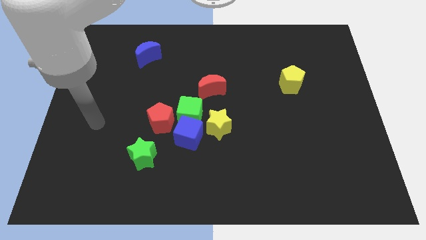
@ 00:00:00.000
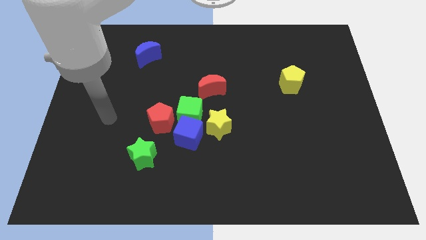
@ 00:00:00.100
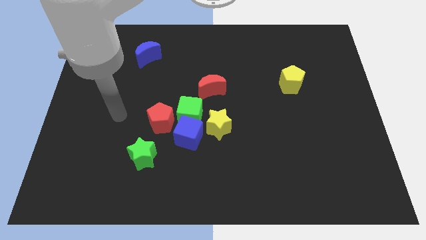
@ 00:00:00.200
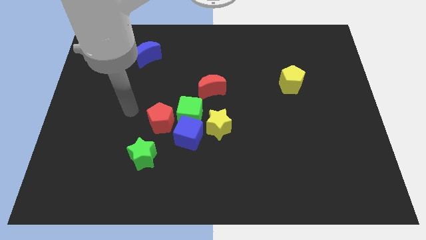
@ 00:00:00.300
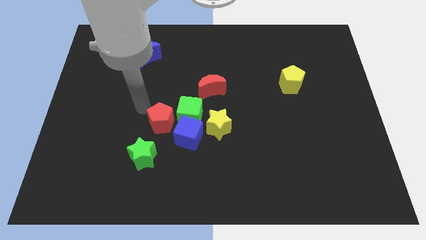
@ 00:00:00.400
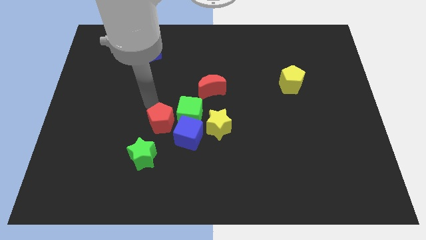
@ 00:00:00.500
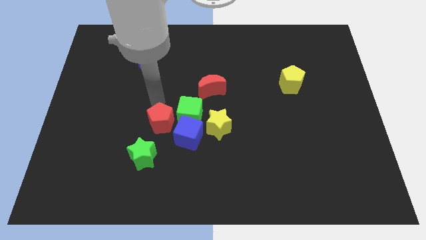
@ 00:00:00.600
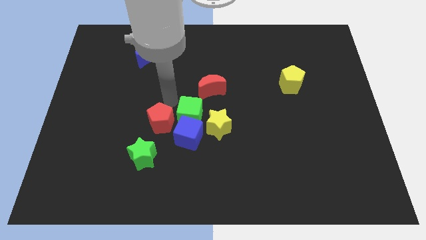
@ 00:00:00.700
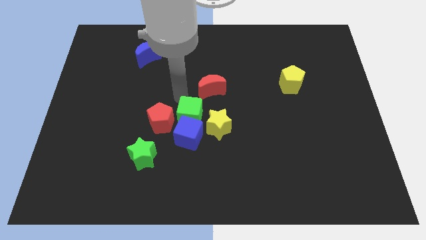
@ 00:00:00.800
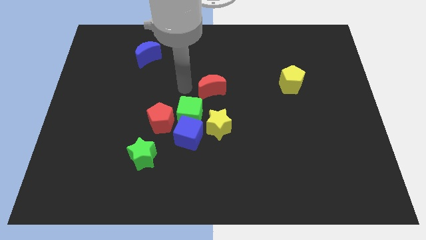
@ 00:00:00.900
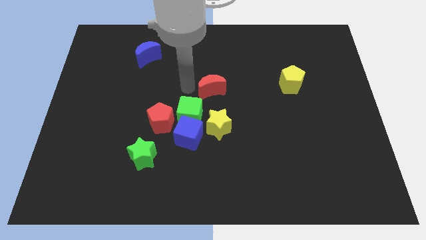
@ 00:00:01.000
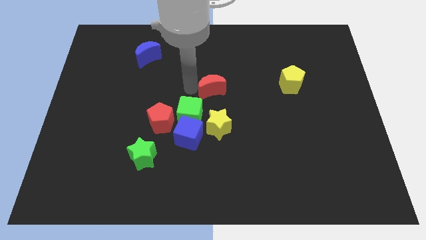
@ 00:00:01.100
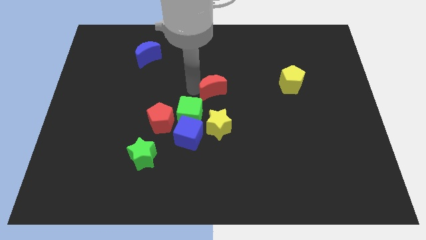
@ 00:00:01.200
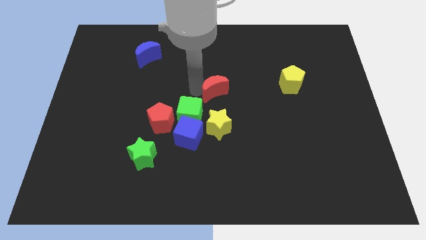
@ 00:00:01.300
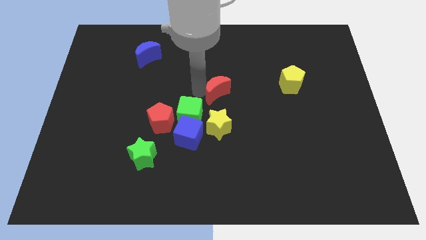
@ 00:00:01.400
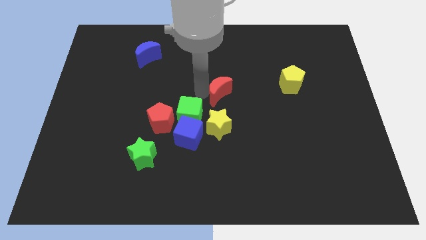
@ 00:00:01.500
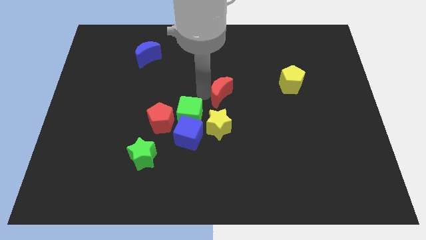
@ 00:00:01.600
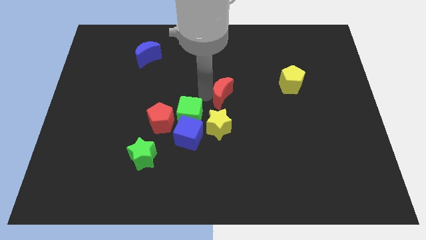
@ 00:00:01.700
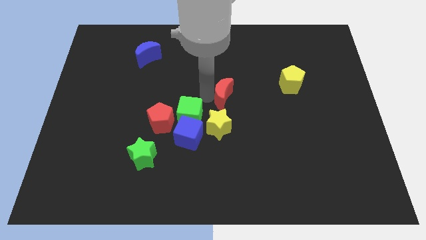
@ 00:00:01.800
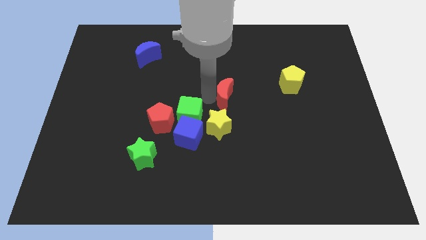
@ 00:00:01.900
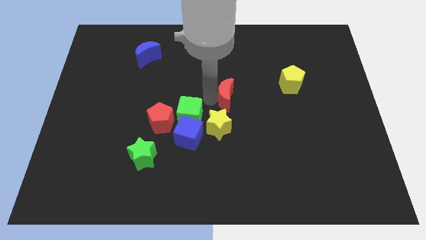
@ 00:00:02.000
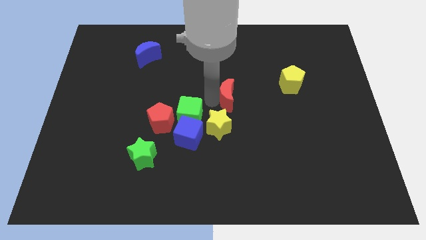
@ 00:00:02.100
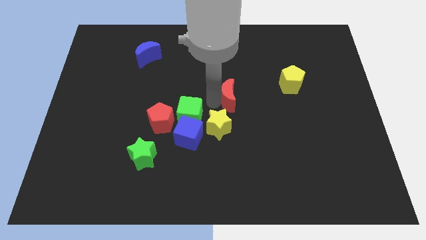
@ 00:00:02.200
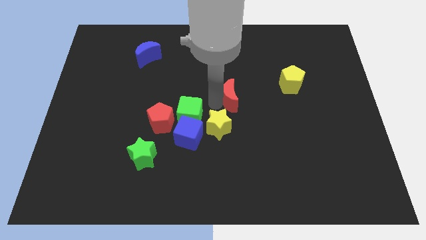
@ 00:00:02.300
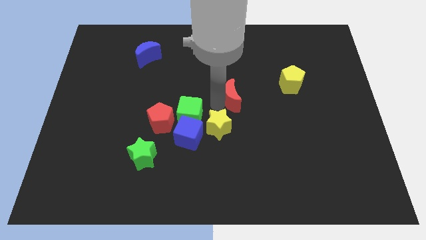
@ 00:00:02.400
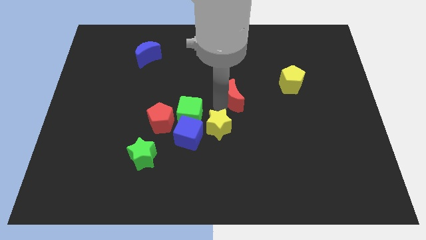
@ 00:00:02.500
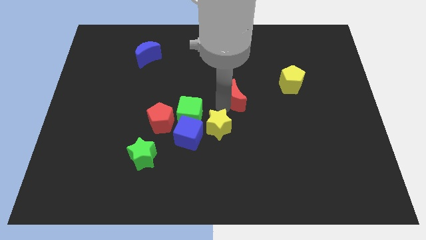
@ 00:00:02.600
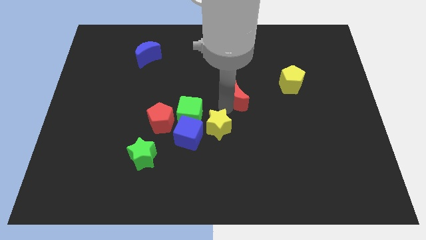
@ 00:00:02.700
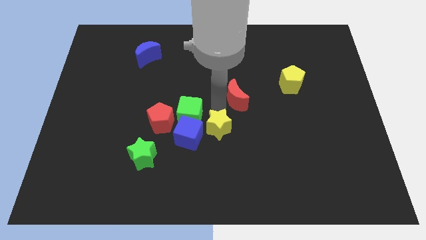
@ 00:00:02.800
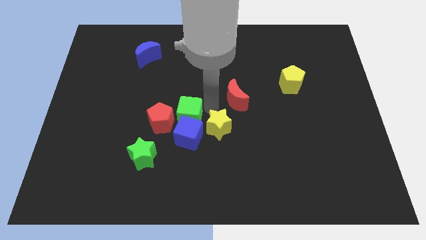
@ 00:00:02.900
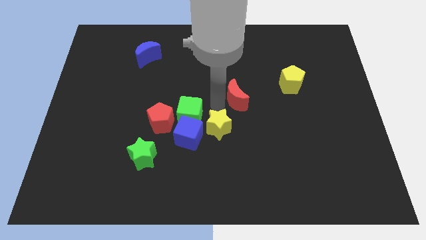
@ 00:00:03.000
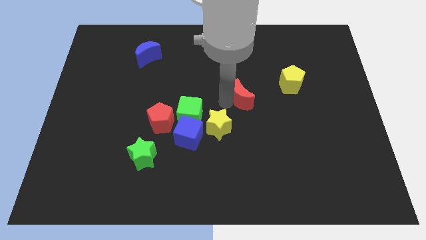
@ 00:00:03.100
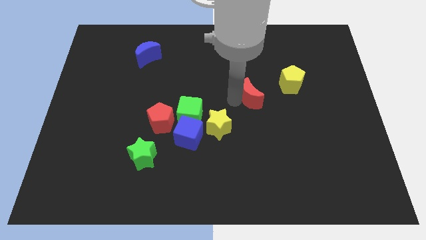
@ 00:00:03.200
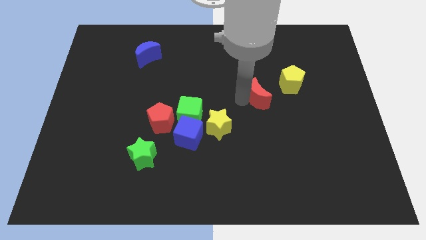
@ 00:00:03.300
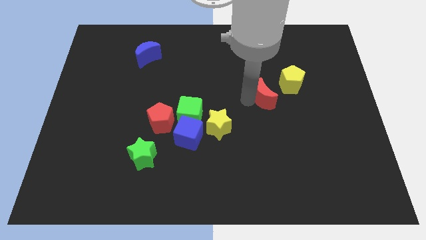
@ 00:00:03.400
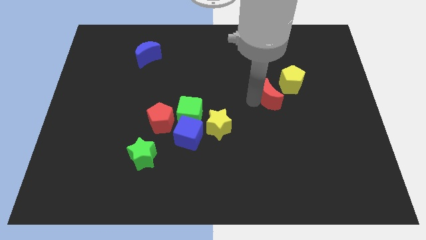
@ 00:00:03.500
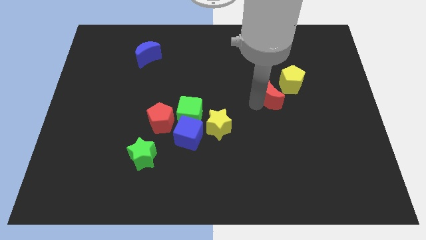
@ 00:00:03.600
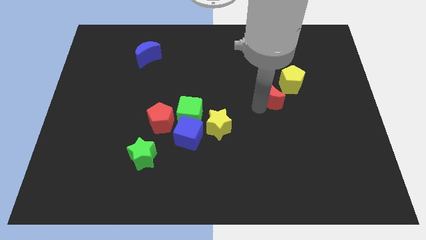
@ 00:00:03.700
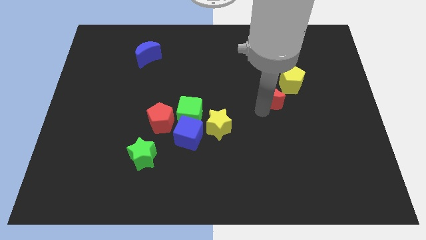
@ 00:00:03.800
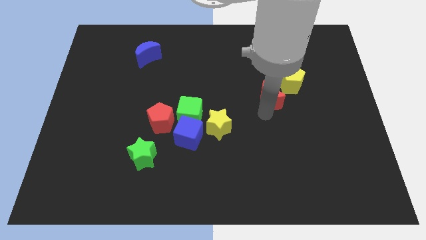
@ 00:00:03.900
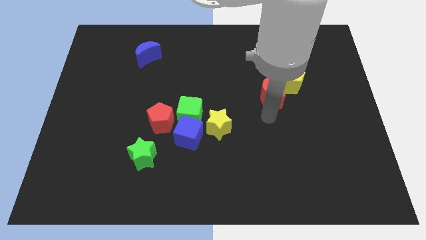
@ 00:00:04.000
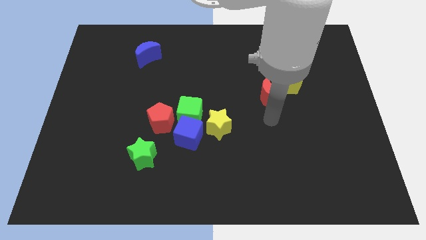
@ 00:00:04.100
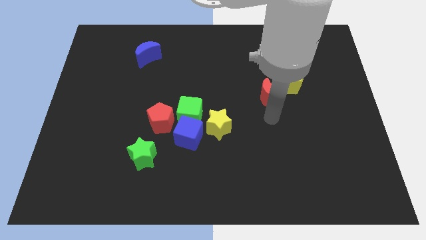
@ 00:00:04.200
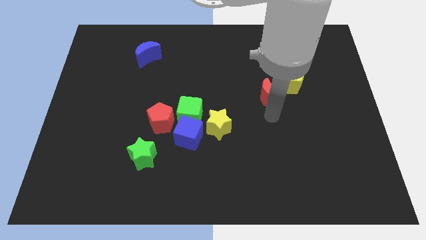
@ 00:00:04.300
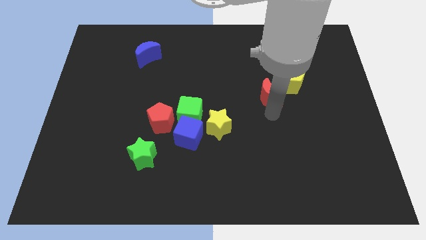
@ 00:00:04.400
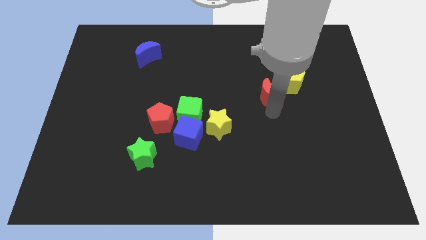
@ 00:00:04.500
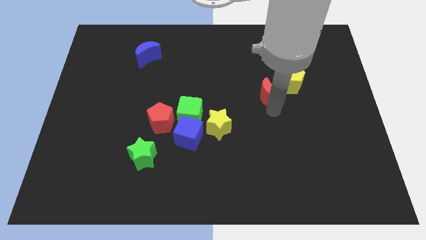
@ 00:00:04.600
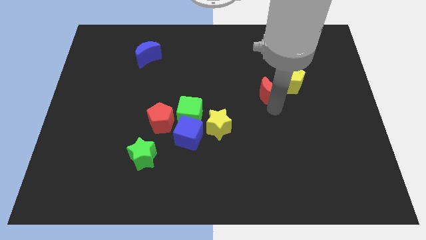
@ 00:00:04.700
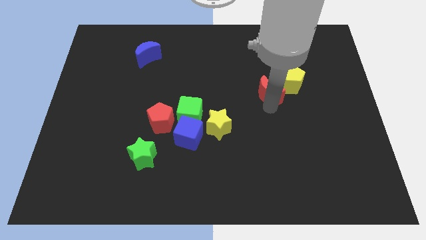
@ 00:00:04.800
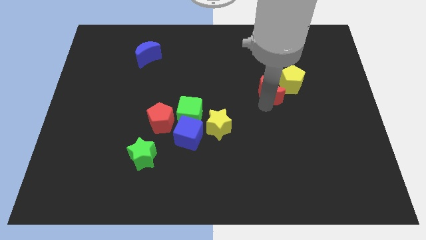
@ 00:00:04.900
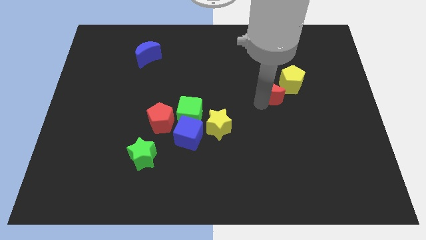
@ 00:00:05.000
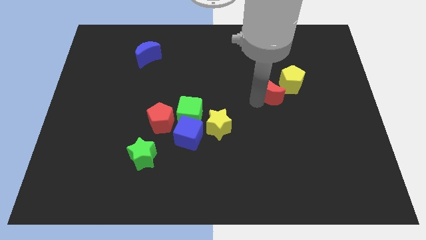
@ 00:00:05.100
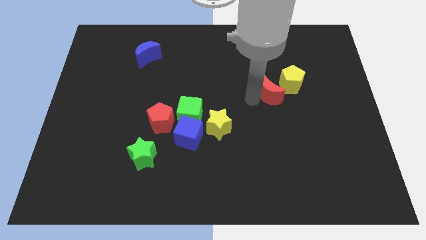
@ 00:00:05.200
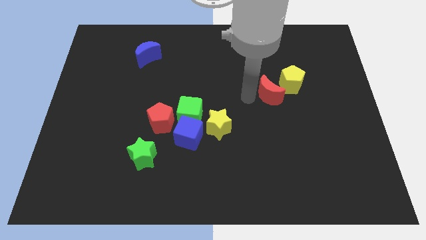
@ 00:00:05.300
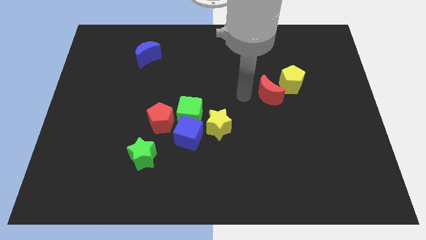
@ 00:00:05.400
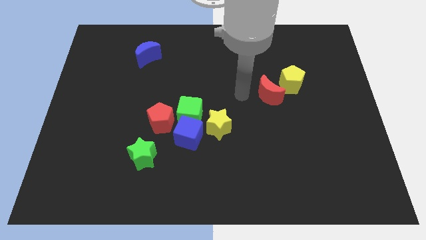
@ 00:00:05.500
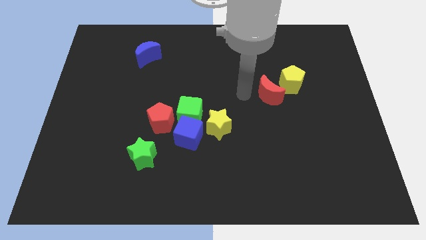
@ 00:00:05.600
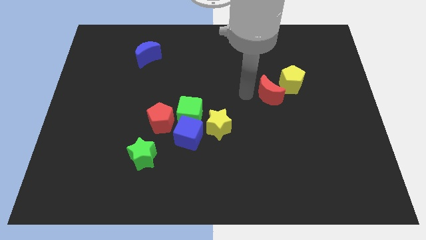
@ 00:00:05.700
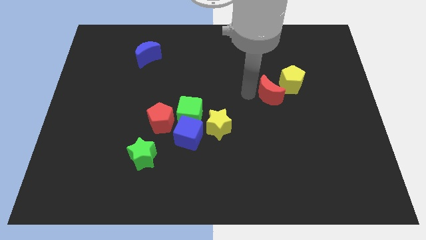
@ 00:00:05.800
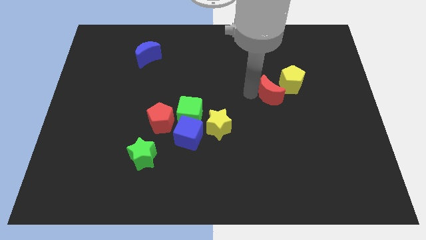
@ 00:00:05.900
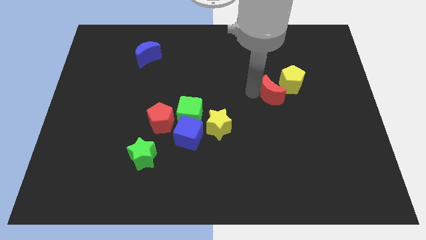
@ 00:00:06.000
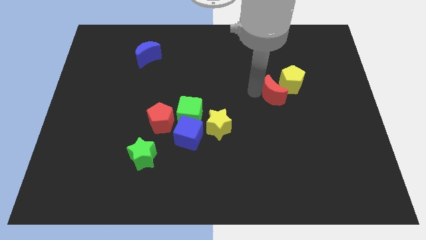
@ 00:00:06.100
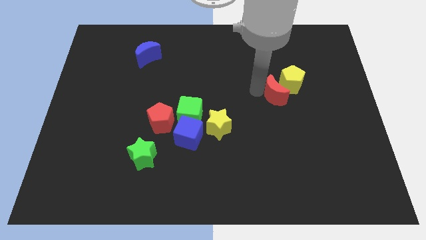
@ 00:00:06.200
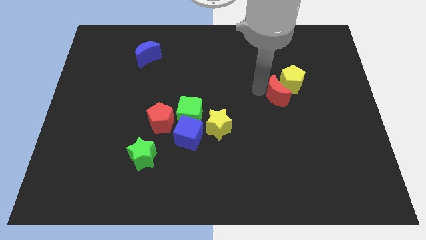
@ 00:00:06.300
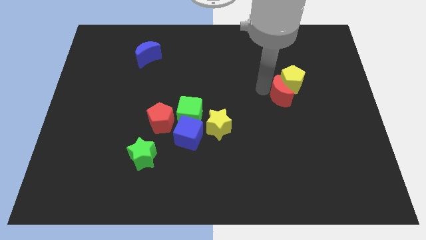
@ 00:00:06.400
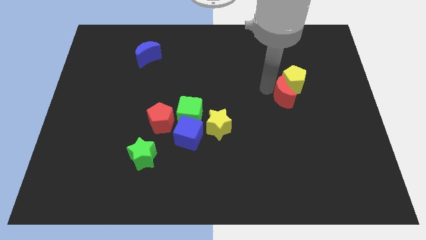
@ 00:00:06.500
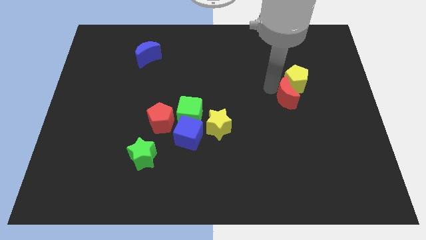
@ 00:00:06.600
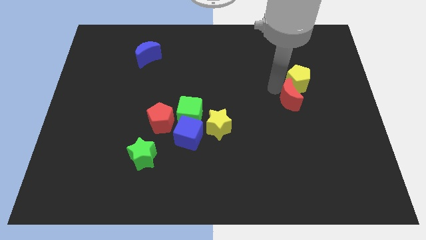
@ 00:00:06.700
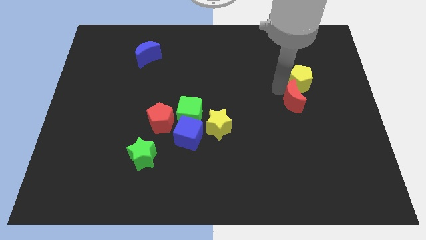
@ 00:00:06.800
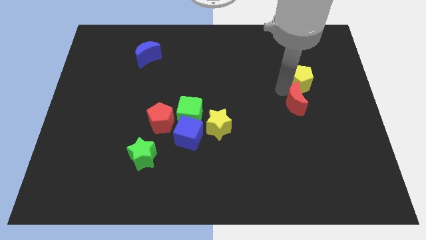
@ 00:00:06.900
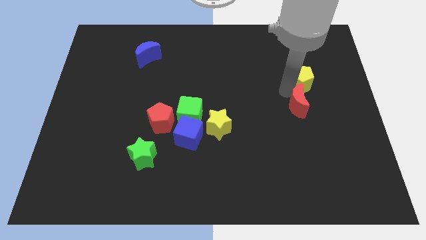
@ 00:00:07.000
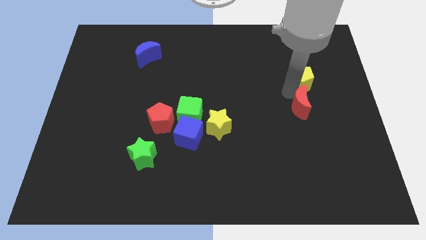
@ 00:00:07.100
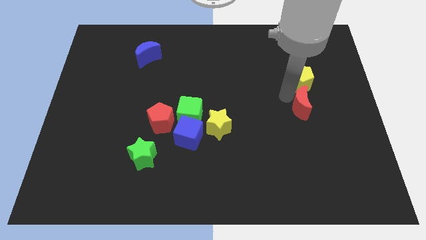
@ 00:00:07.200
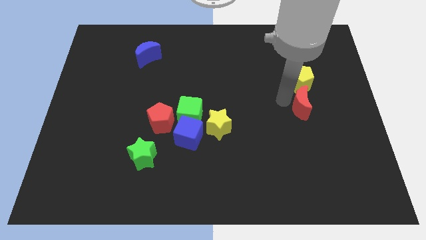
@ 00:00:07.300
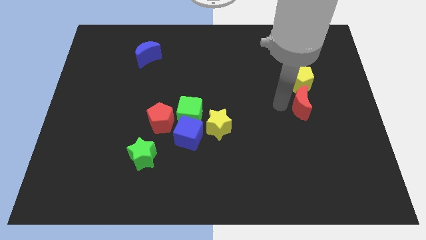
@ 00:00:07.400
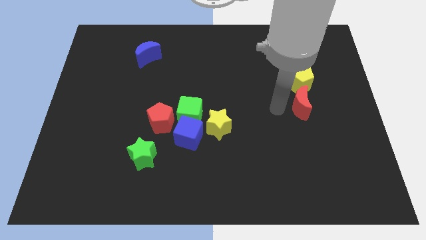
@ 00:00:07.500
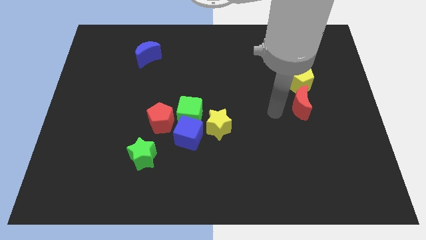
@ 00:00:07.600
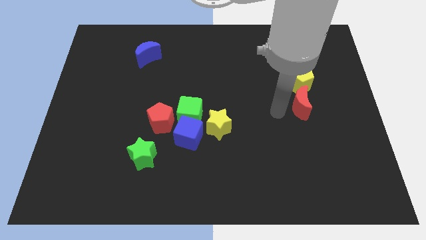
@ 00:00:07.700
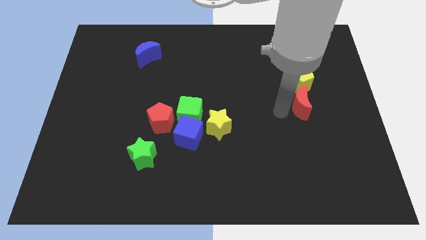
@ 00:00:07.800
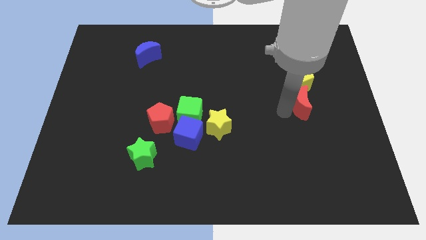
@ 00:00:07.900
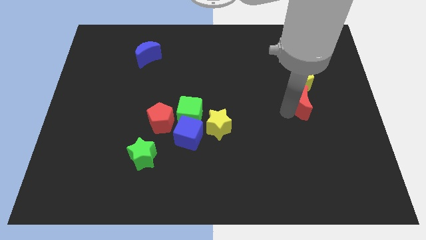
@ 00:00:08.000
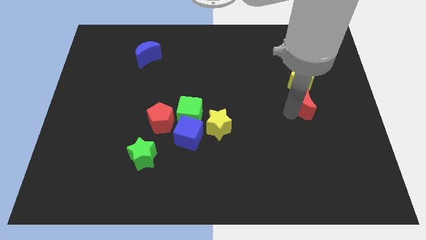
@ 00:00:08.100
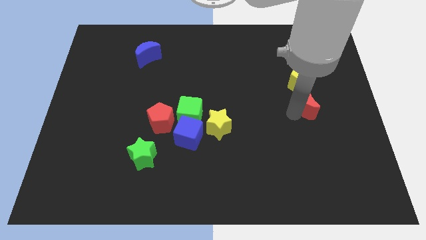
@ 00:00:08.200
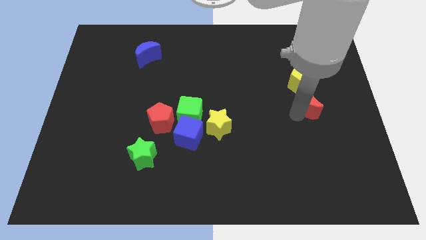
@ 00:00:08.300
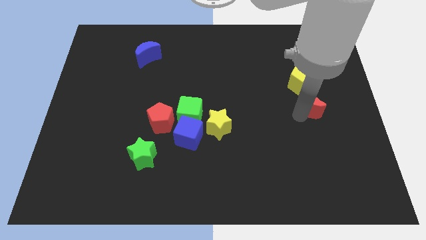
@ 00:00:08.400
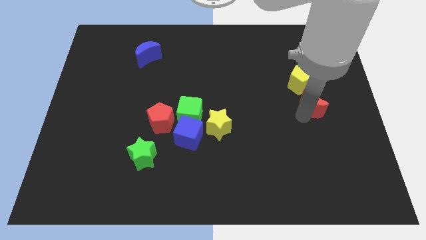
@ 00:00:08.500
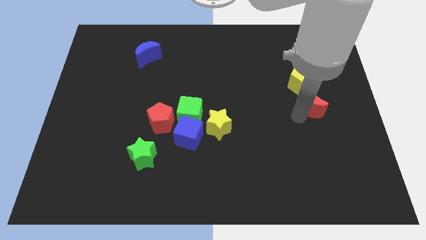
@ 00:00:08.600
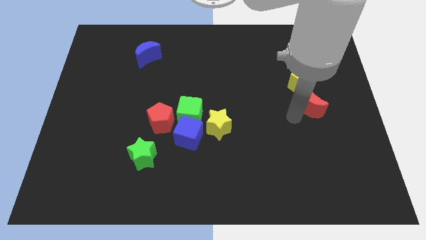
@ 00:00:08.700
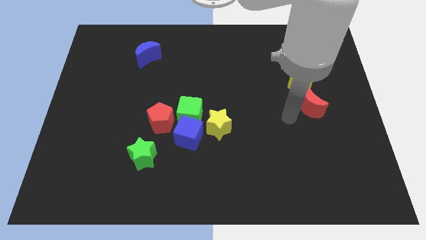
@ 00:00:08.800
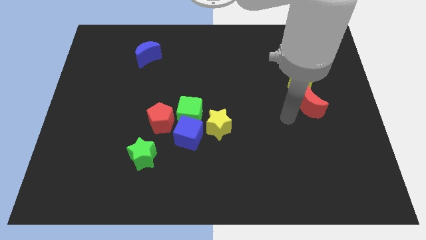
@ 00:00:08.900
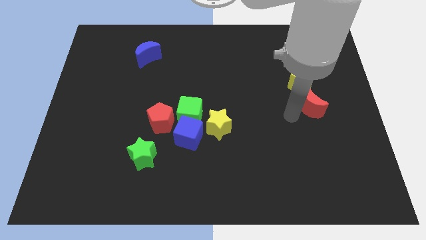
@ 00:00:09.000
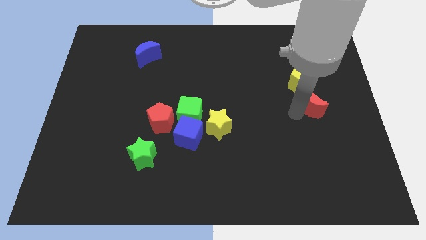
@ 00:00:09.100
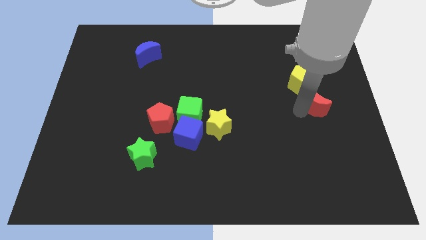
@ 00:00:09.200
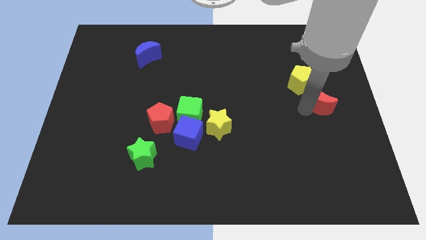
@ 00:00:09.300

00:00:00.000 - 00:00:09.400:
move the red moon to the right side of the board
